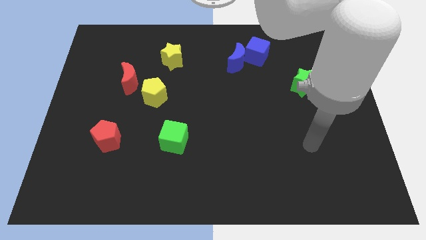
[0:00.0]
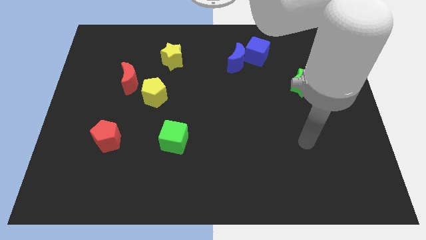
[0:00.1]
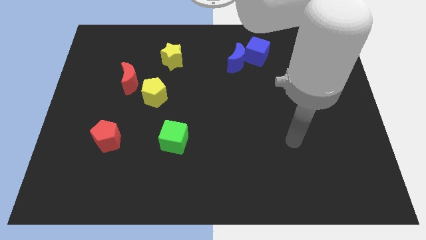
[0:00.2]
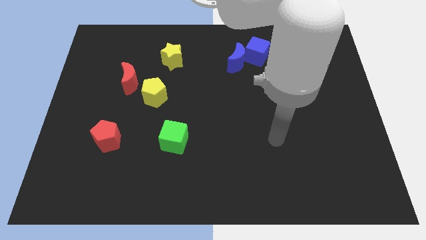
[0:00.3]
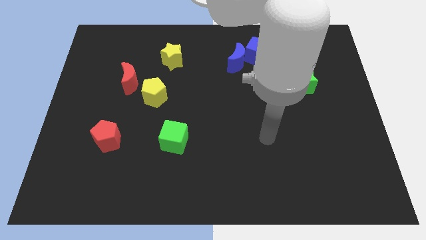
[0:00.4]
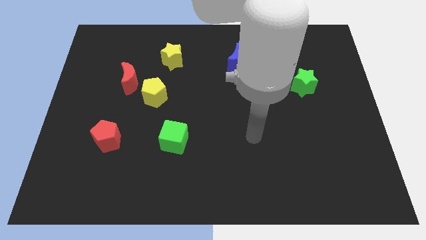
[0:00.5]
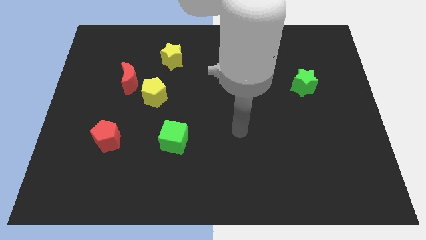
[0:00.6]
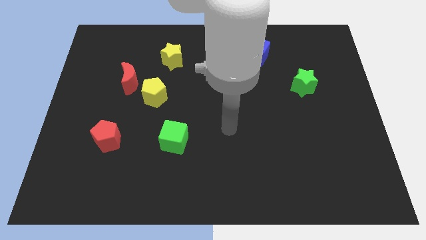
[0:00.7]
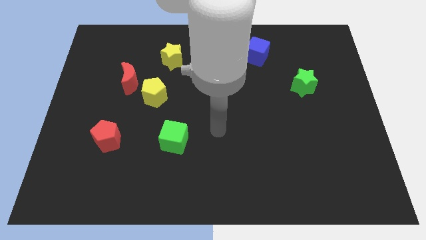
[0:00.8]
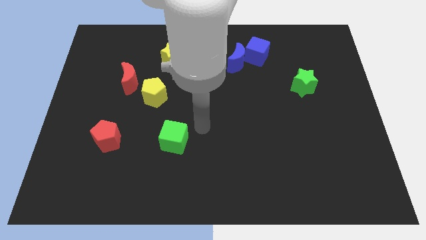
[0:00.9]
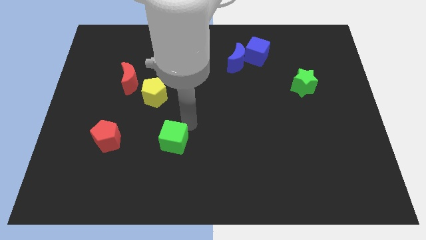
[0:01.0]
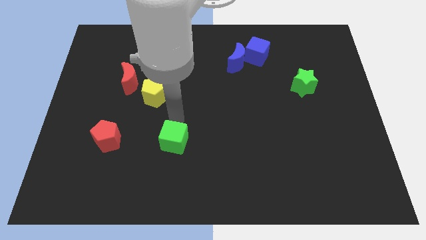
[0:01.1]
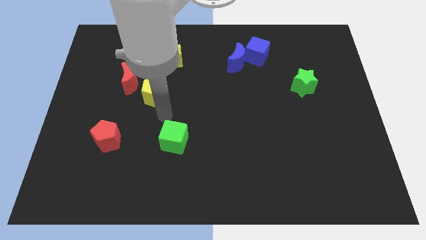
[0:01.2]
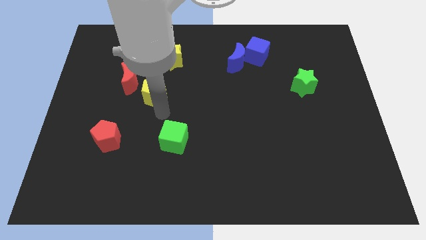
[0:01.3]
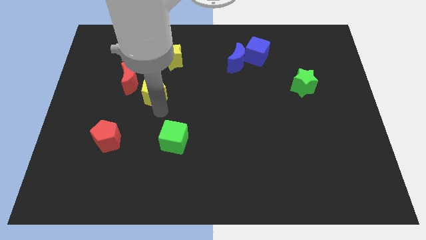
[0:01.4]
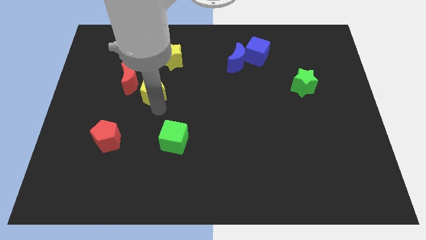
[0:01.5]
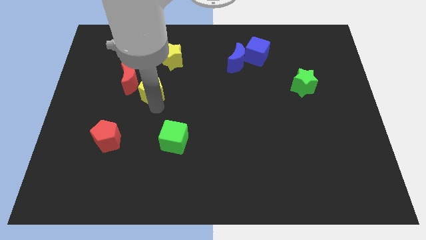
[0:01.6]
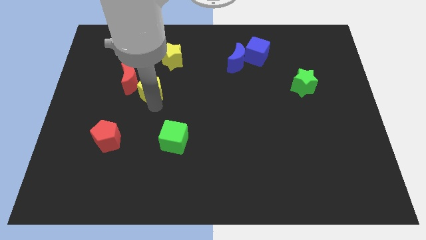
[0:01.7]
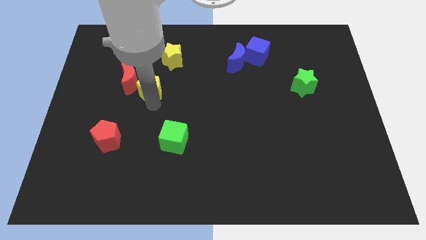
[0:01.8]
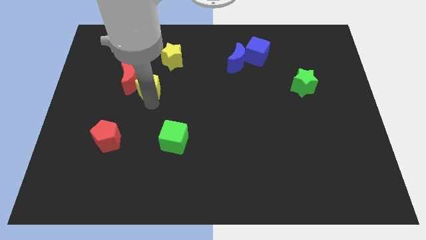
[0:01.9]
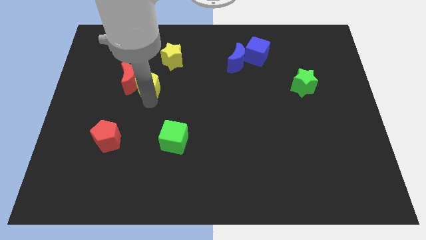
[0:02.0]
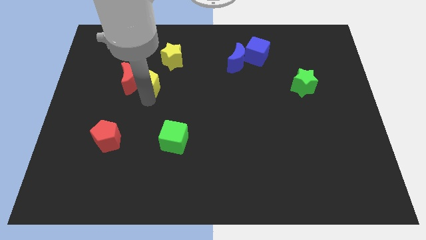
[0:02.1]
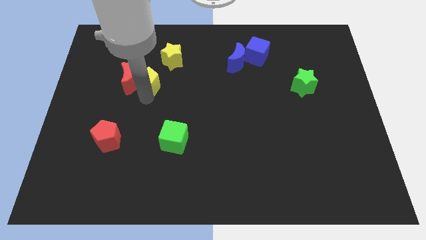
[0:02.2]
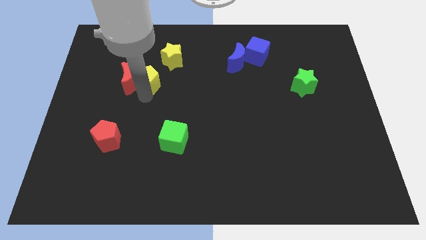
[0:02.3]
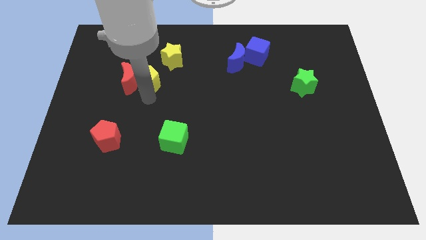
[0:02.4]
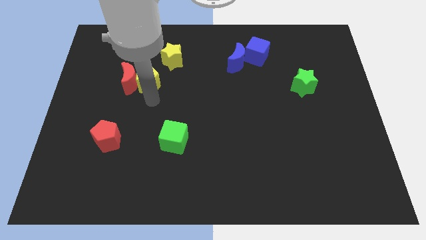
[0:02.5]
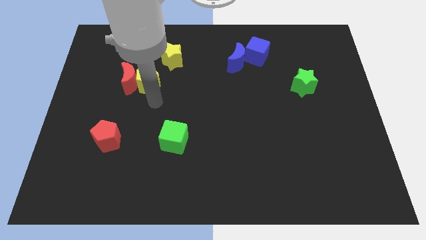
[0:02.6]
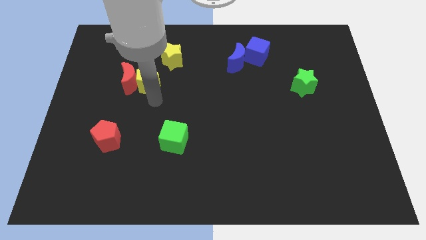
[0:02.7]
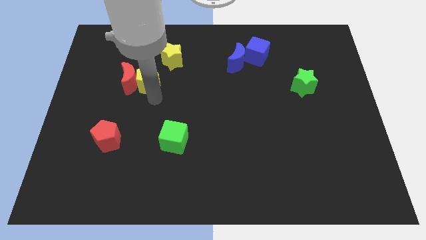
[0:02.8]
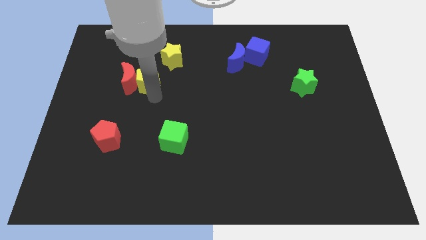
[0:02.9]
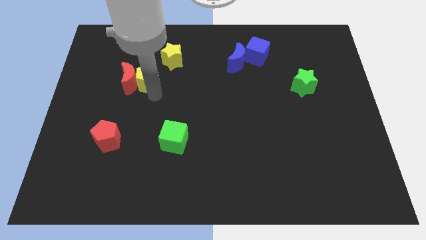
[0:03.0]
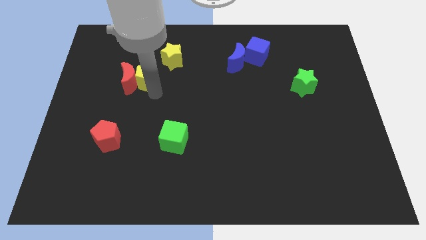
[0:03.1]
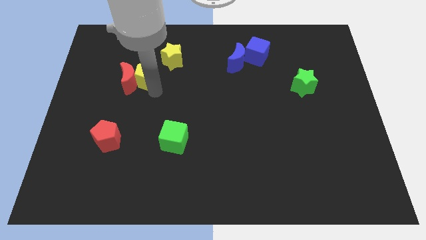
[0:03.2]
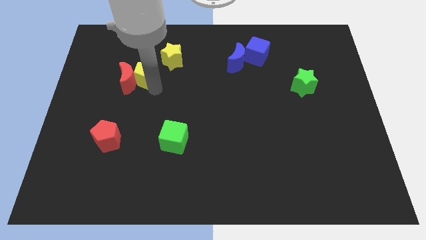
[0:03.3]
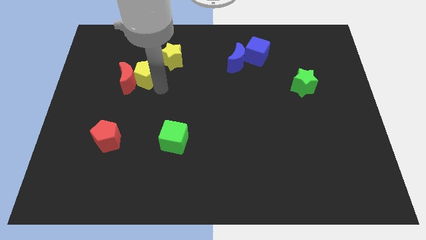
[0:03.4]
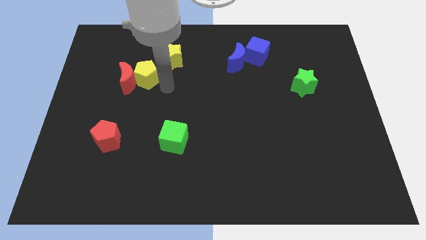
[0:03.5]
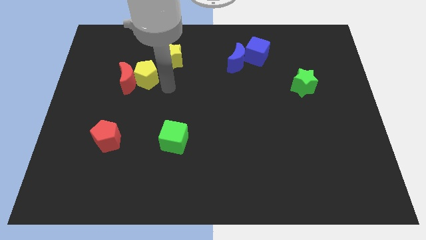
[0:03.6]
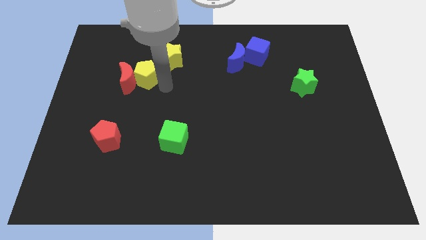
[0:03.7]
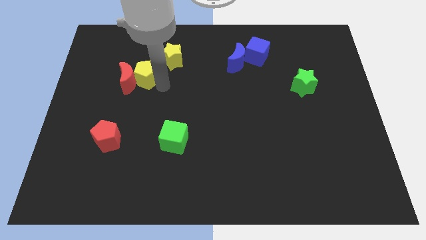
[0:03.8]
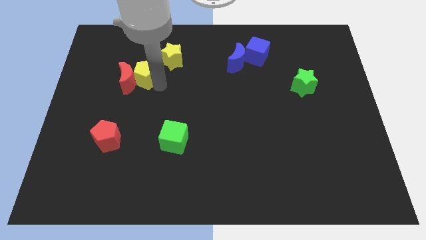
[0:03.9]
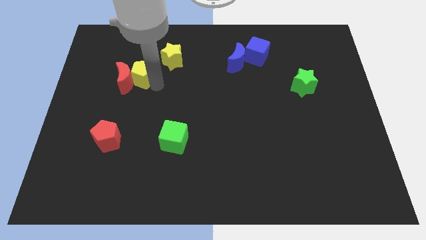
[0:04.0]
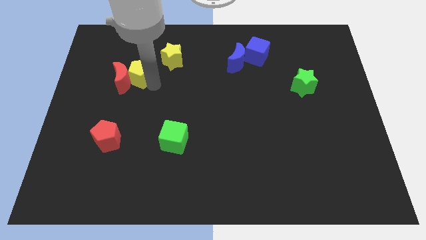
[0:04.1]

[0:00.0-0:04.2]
slide the yellow pentagon up and left diagonally slightly

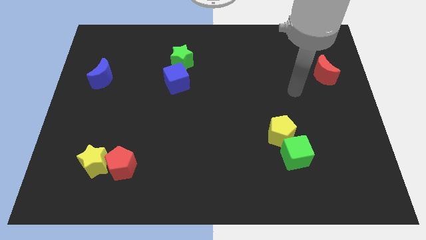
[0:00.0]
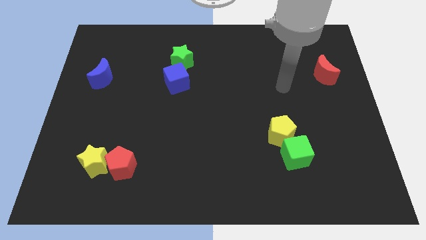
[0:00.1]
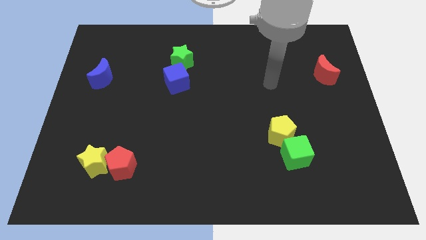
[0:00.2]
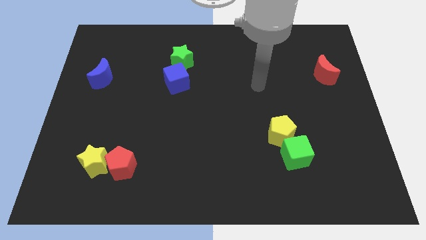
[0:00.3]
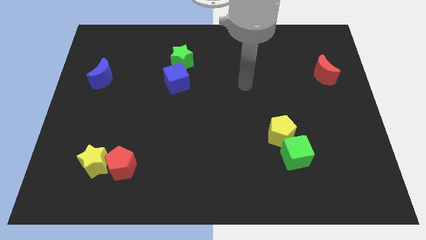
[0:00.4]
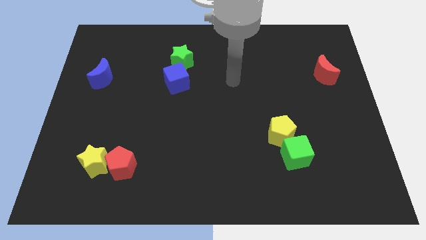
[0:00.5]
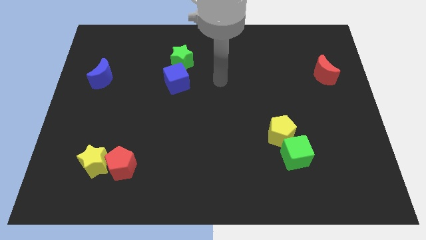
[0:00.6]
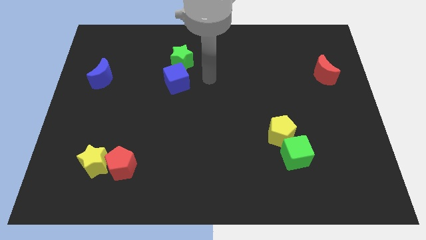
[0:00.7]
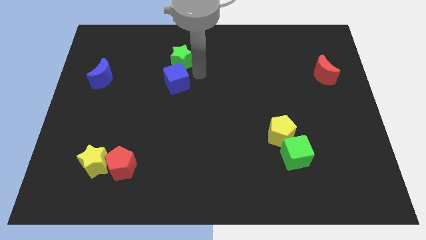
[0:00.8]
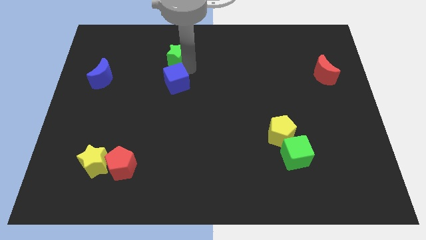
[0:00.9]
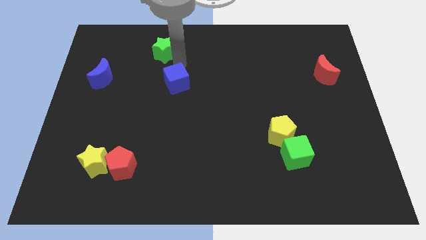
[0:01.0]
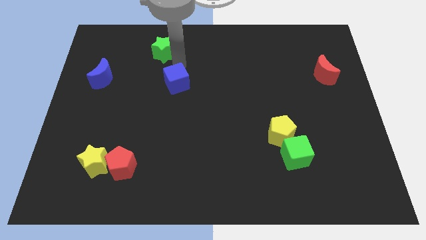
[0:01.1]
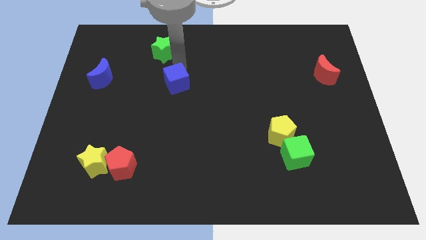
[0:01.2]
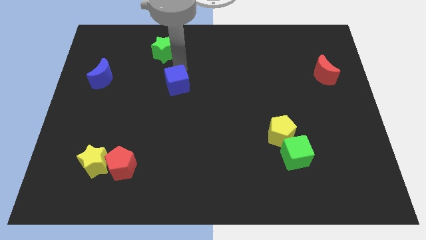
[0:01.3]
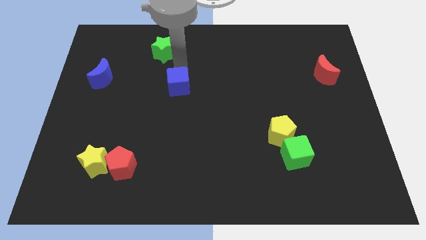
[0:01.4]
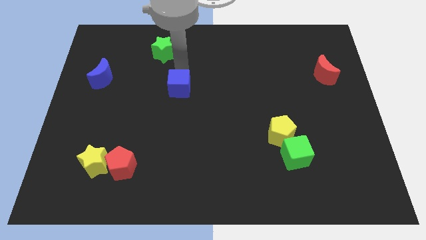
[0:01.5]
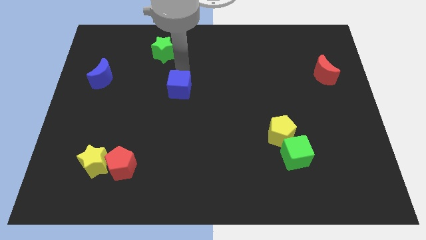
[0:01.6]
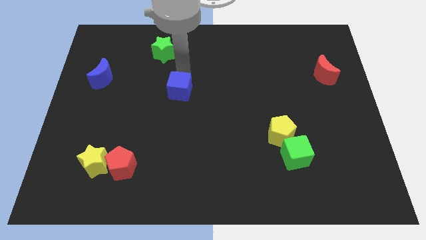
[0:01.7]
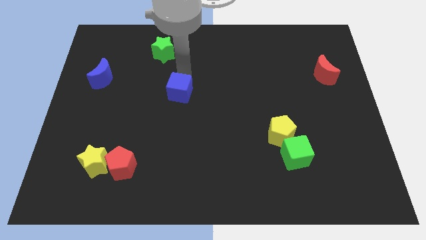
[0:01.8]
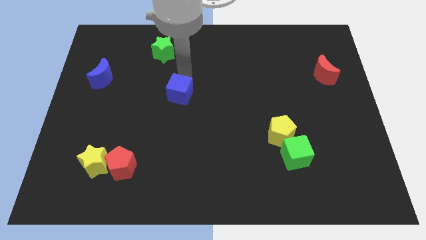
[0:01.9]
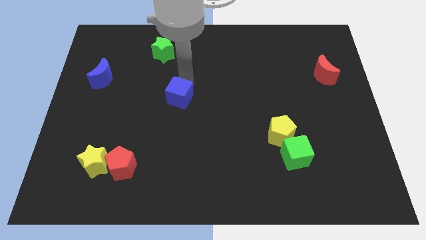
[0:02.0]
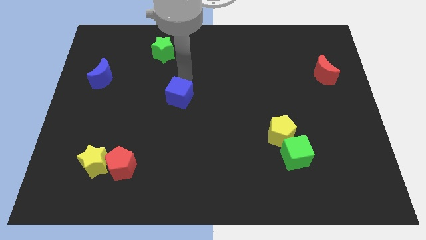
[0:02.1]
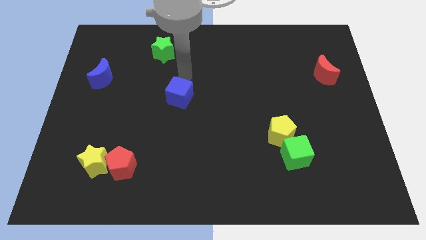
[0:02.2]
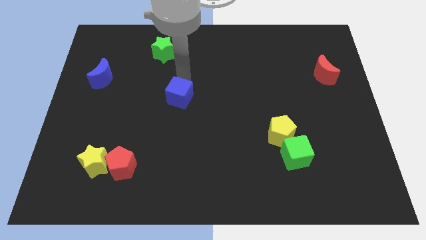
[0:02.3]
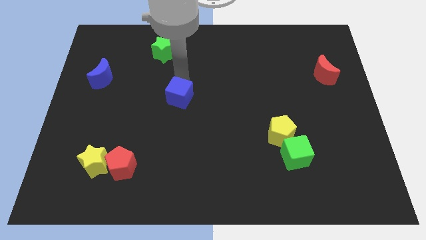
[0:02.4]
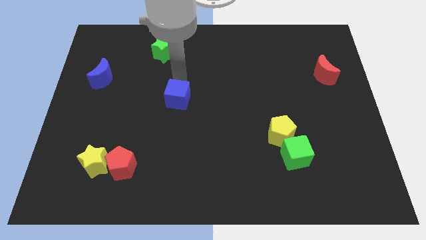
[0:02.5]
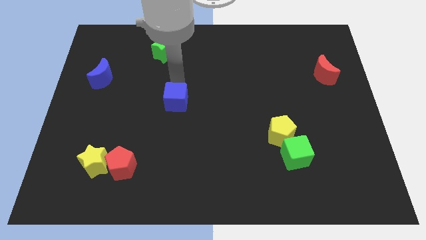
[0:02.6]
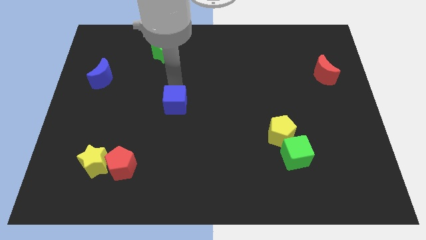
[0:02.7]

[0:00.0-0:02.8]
slide the blue cube down a little bit

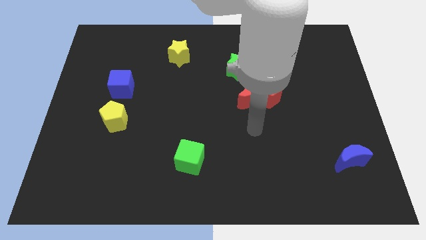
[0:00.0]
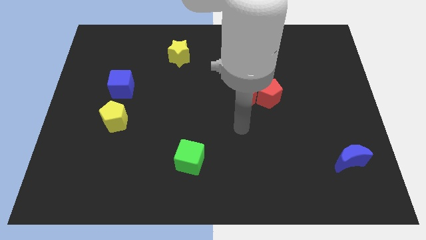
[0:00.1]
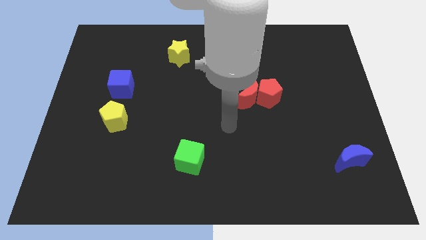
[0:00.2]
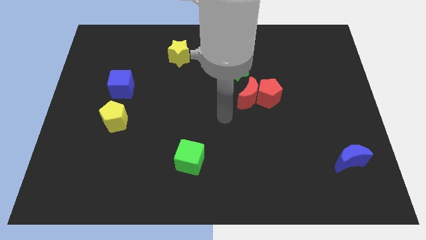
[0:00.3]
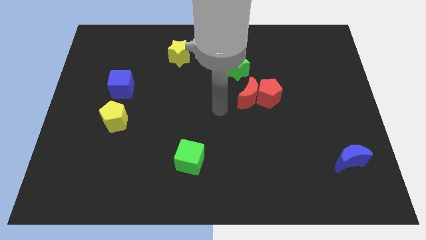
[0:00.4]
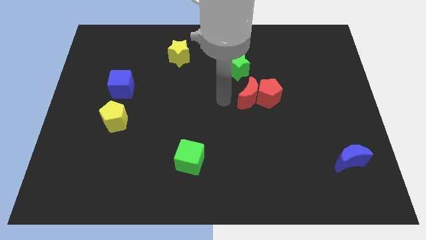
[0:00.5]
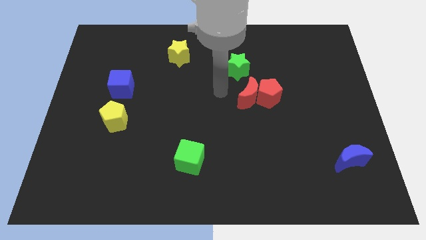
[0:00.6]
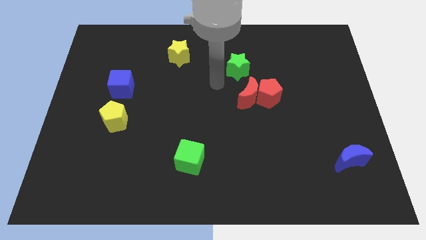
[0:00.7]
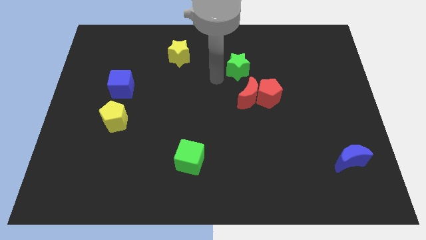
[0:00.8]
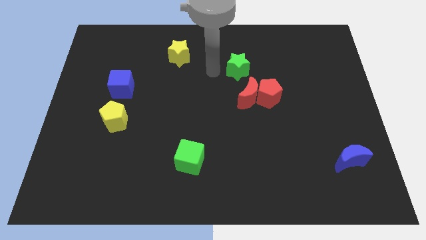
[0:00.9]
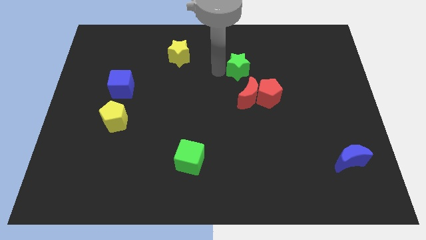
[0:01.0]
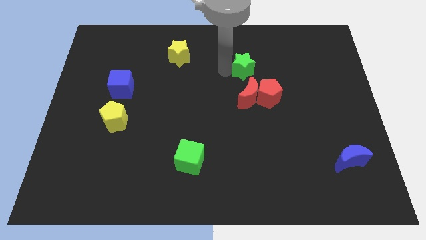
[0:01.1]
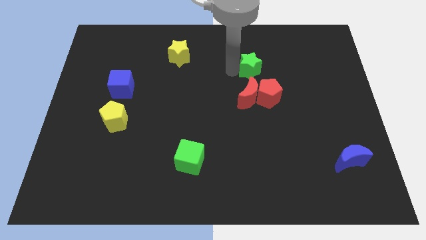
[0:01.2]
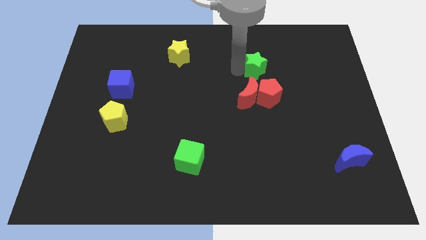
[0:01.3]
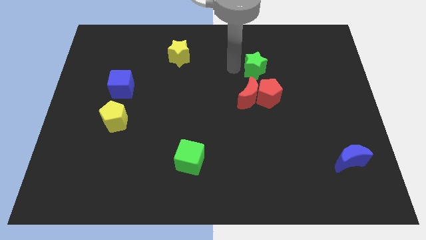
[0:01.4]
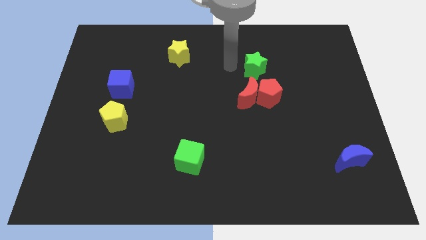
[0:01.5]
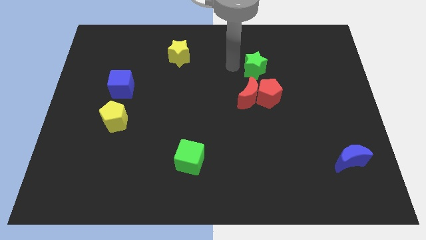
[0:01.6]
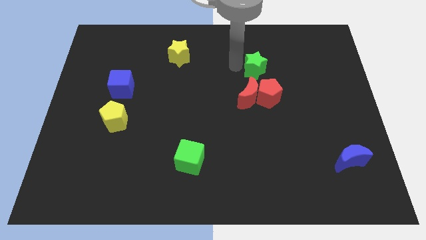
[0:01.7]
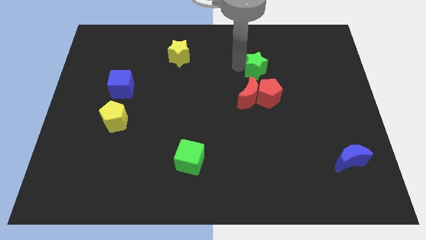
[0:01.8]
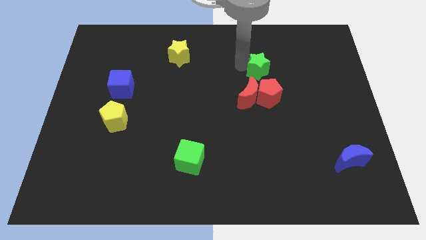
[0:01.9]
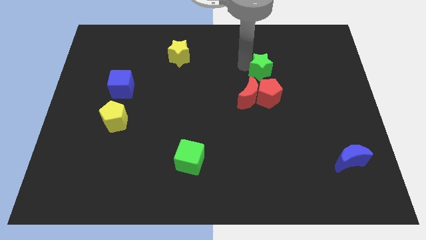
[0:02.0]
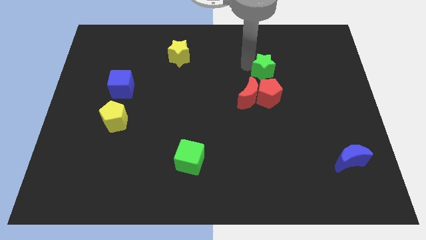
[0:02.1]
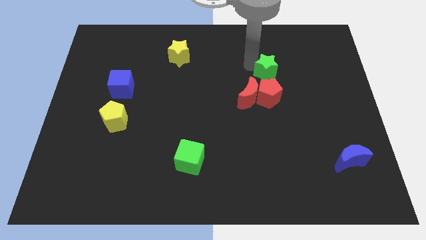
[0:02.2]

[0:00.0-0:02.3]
slightly move the green star right
